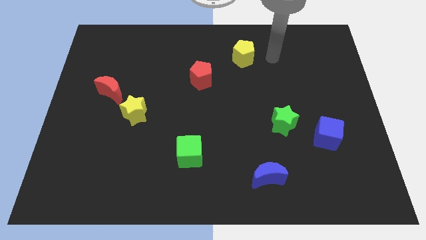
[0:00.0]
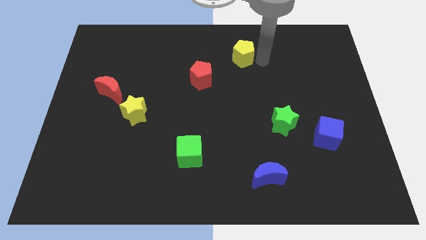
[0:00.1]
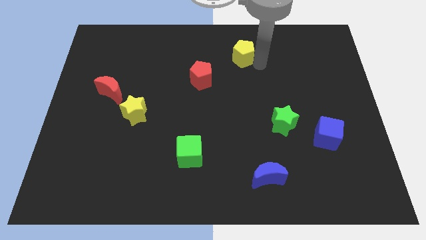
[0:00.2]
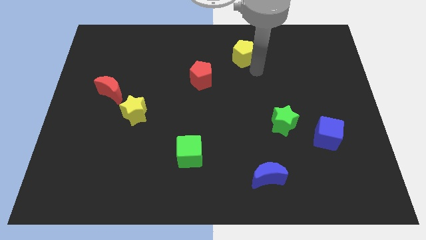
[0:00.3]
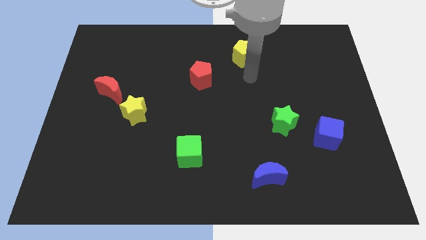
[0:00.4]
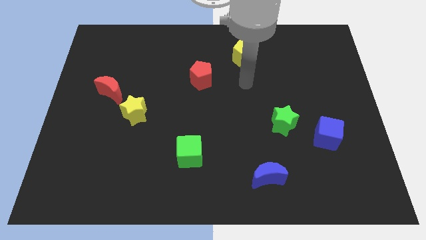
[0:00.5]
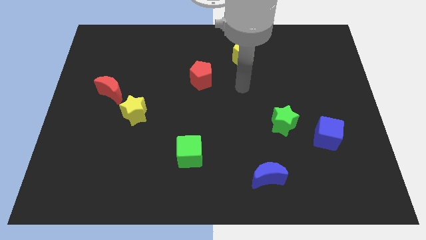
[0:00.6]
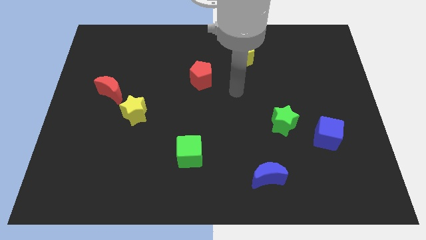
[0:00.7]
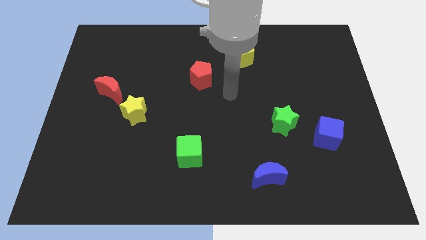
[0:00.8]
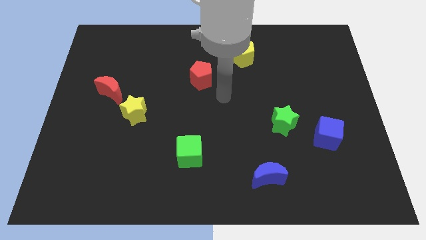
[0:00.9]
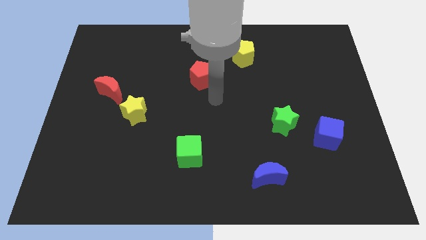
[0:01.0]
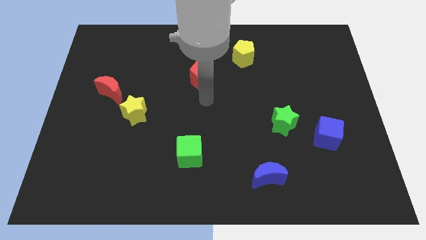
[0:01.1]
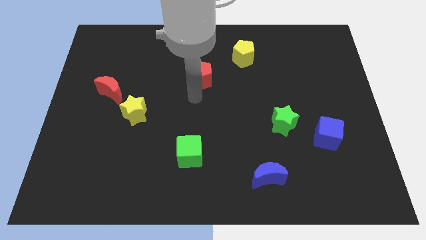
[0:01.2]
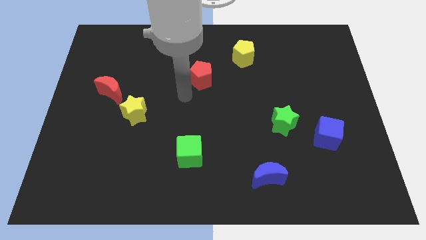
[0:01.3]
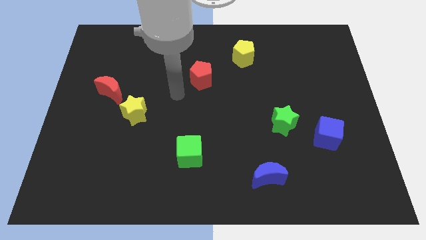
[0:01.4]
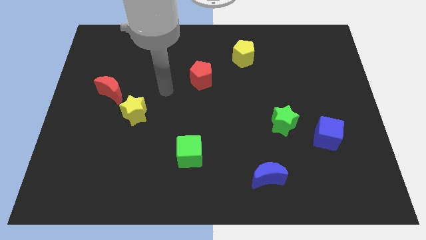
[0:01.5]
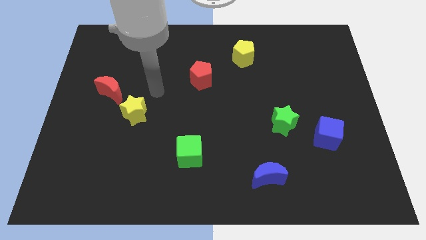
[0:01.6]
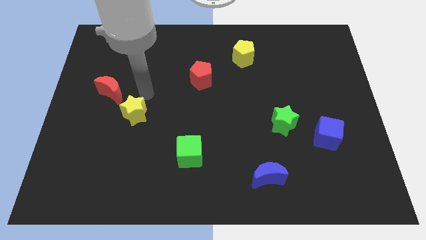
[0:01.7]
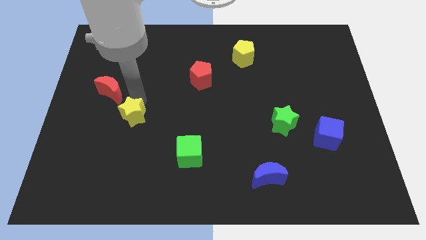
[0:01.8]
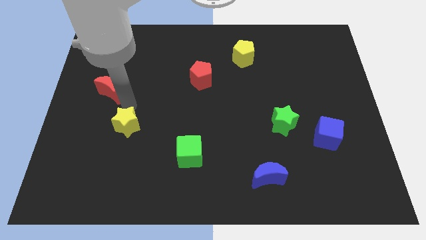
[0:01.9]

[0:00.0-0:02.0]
pull the red moon apart from the yellow star

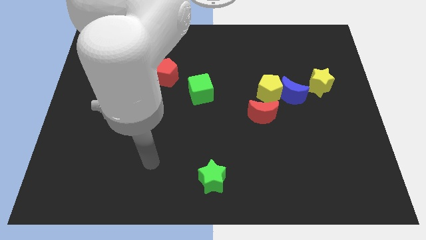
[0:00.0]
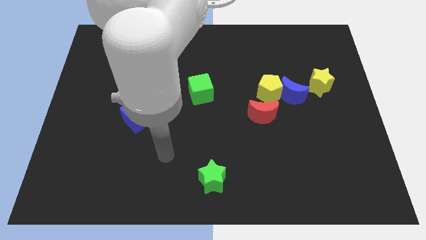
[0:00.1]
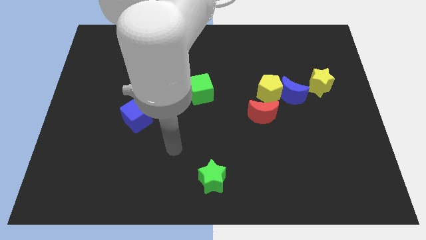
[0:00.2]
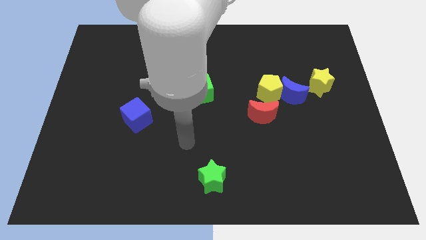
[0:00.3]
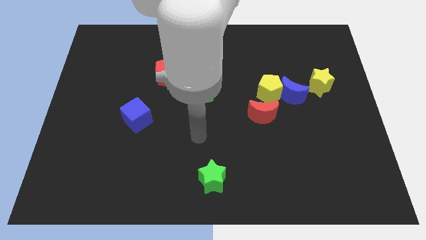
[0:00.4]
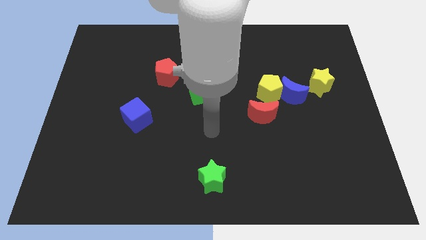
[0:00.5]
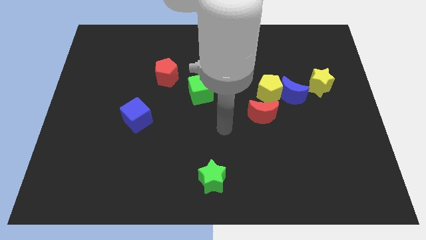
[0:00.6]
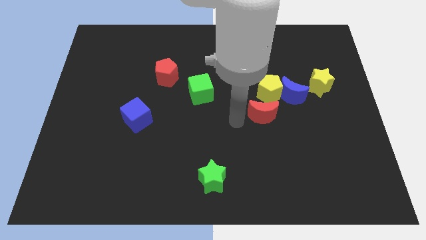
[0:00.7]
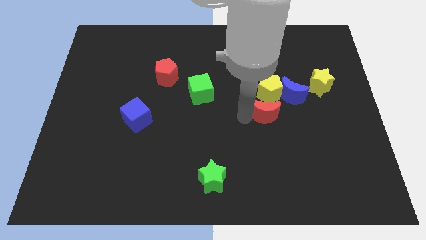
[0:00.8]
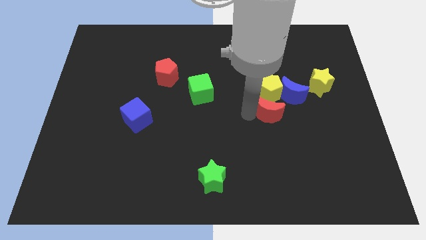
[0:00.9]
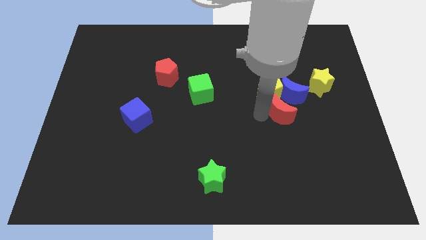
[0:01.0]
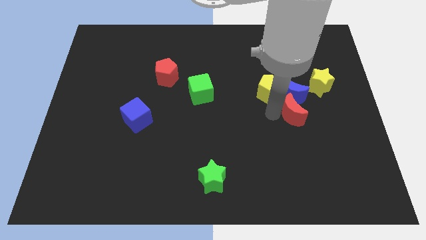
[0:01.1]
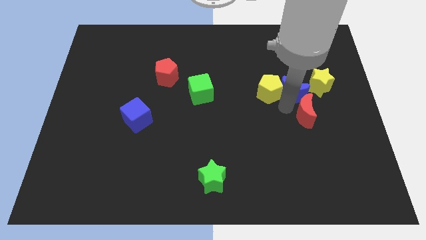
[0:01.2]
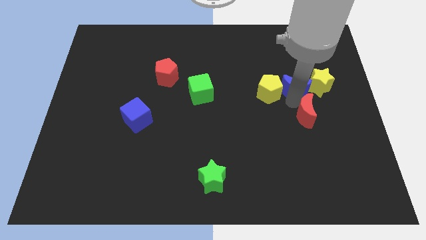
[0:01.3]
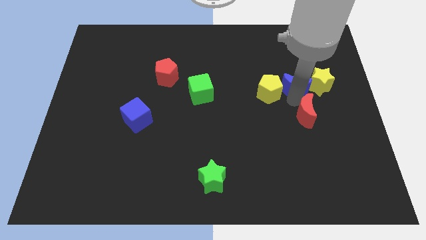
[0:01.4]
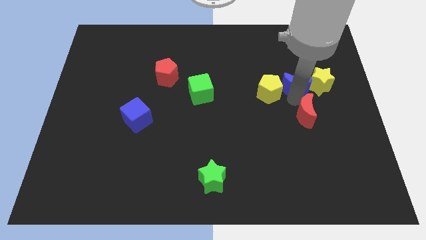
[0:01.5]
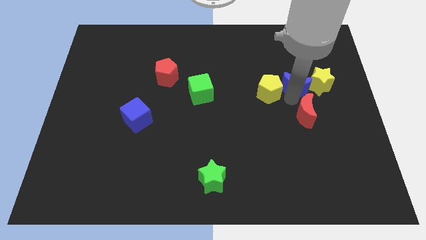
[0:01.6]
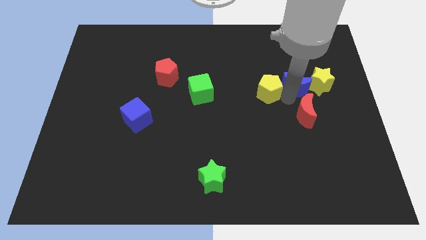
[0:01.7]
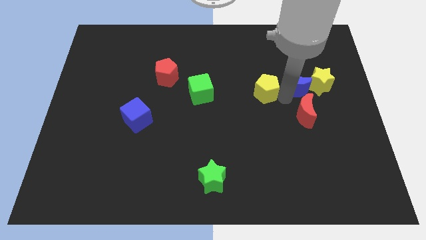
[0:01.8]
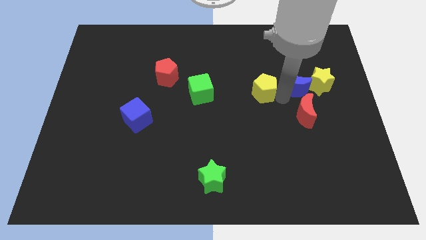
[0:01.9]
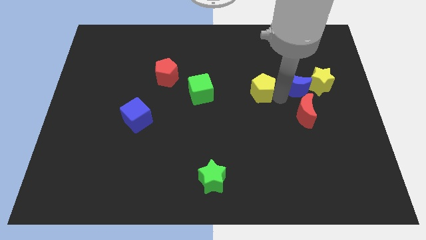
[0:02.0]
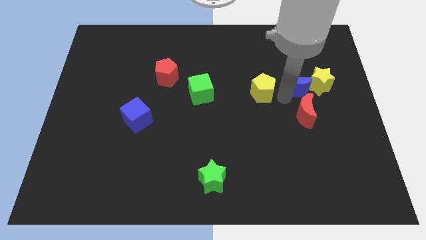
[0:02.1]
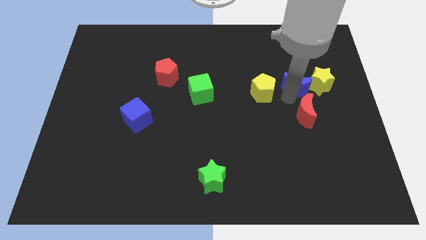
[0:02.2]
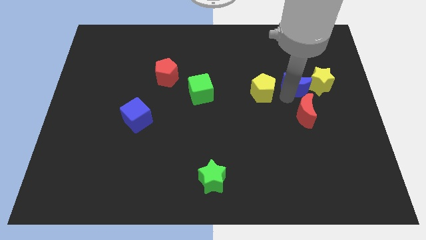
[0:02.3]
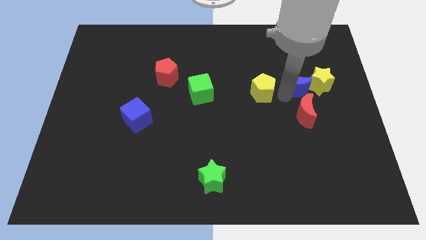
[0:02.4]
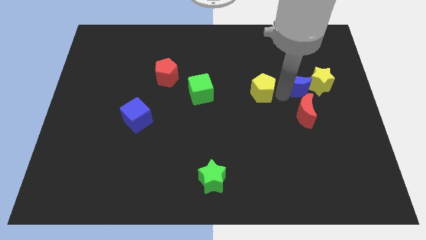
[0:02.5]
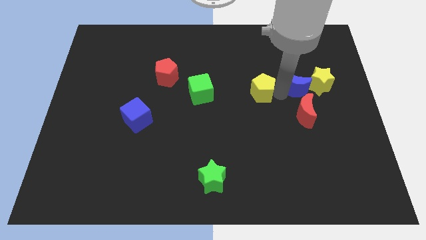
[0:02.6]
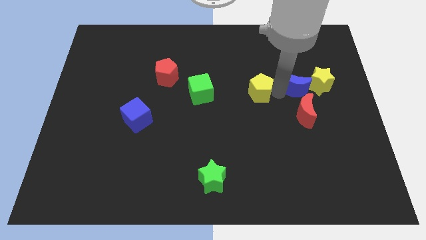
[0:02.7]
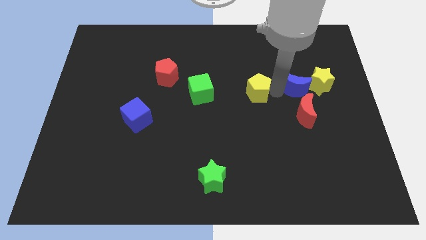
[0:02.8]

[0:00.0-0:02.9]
separate the yellow pentagon from the blue moon and red moon

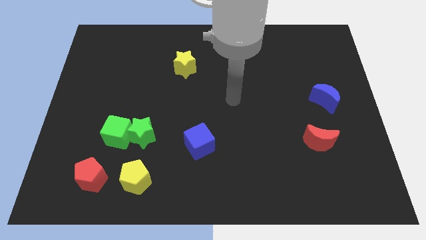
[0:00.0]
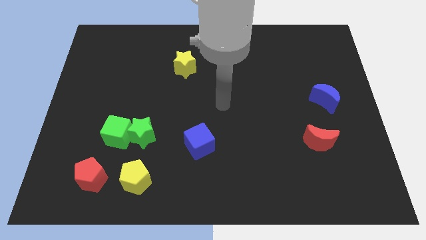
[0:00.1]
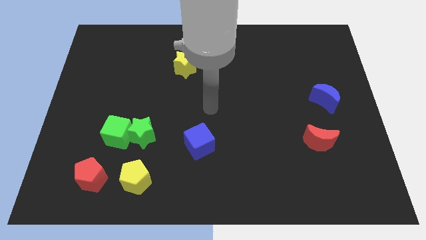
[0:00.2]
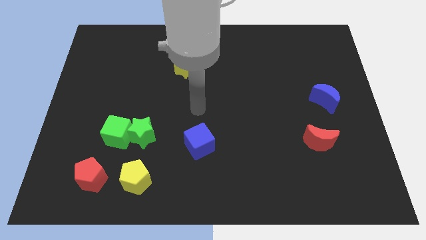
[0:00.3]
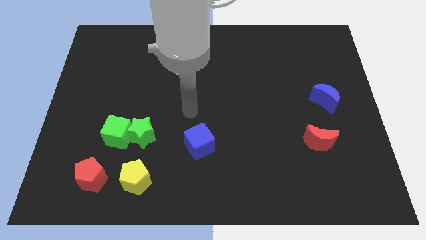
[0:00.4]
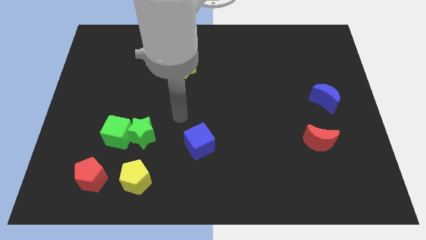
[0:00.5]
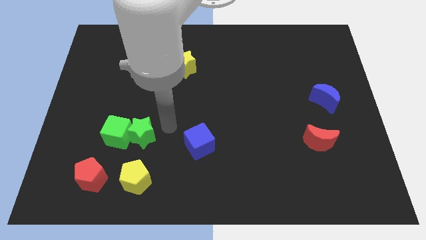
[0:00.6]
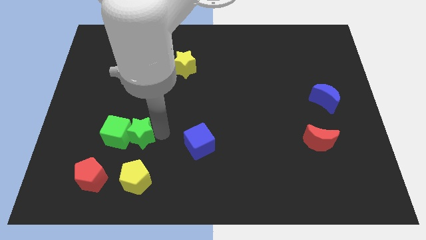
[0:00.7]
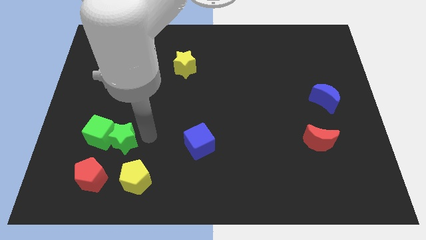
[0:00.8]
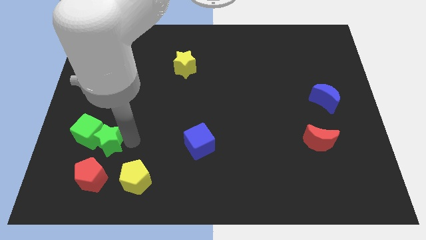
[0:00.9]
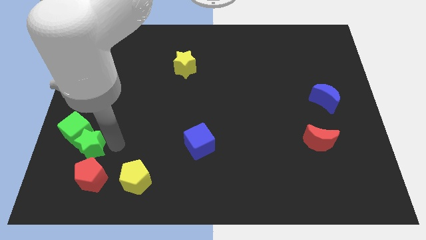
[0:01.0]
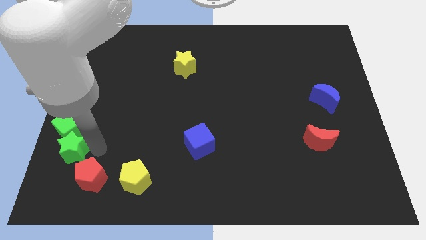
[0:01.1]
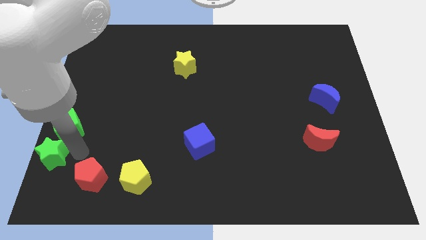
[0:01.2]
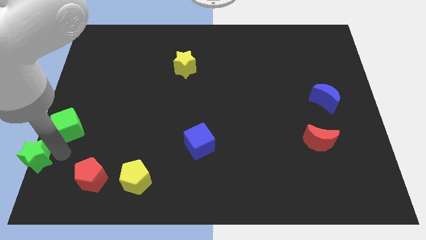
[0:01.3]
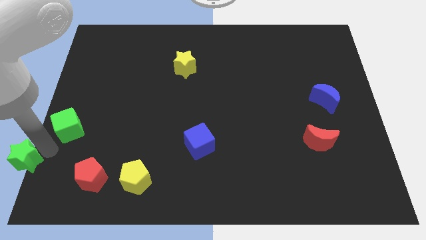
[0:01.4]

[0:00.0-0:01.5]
move the green cube away from the green star

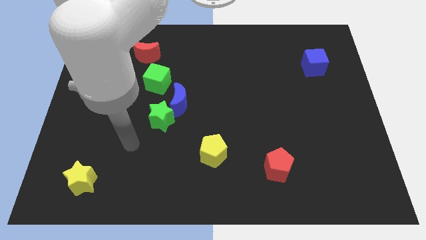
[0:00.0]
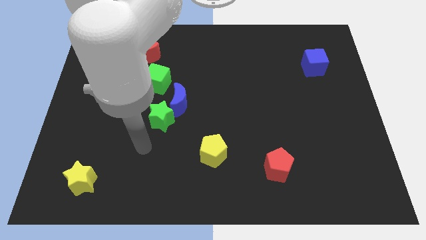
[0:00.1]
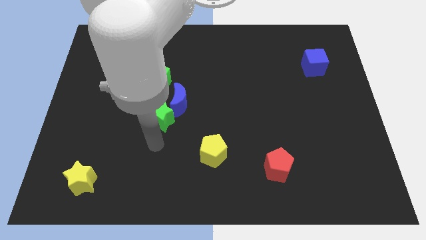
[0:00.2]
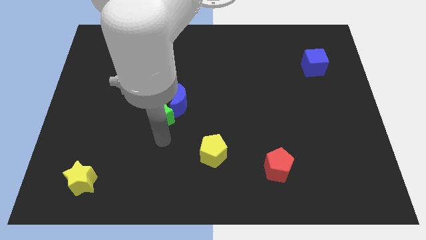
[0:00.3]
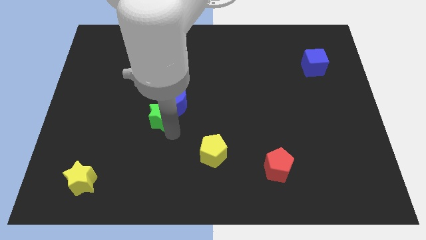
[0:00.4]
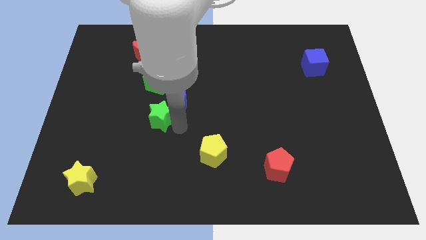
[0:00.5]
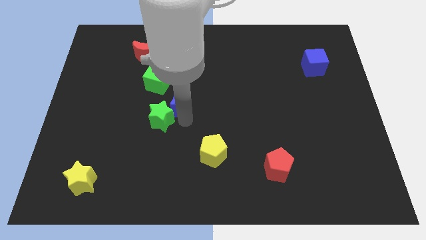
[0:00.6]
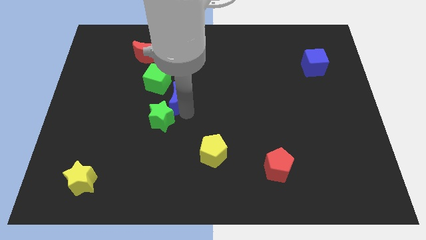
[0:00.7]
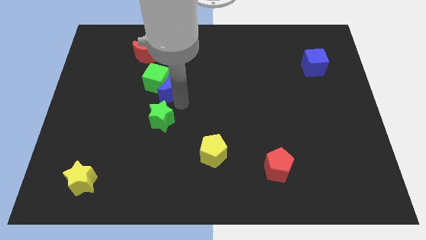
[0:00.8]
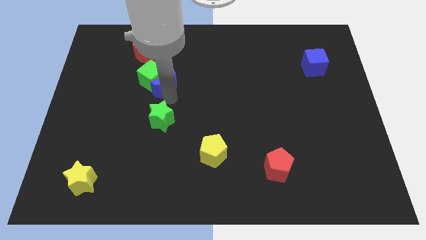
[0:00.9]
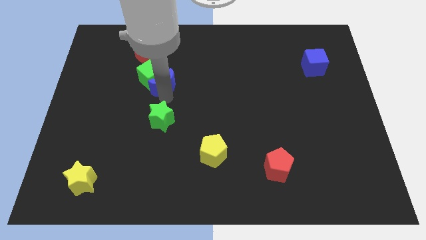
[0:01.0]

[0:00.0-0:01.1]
separate the green star from the blue moon

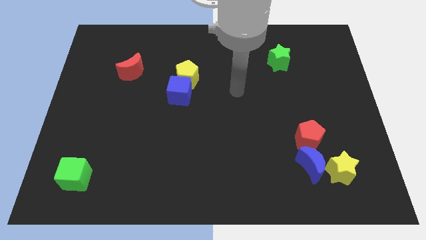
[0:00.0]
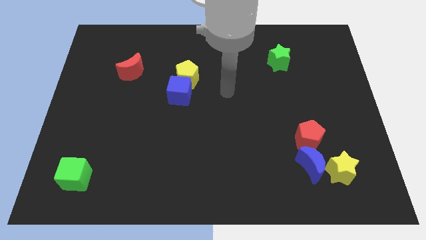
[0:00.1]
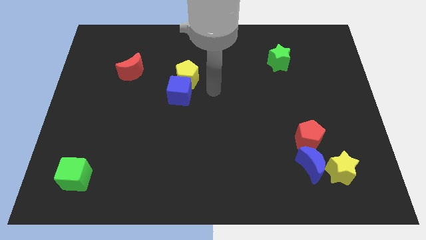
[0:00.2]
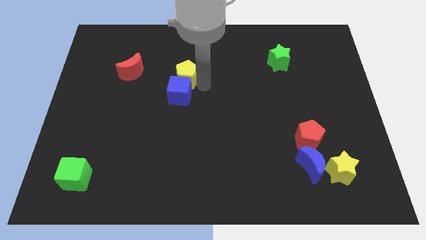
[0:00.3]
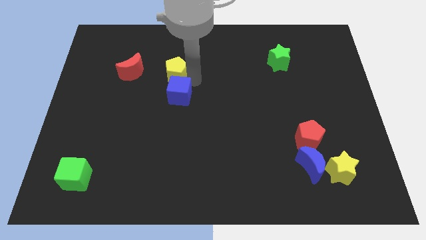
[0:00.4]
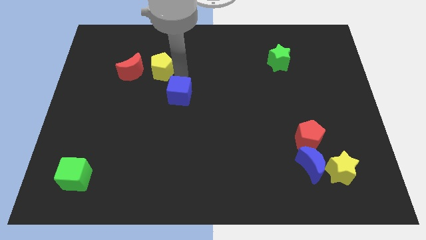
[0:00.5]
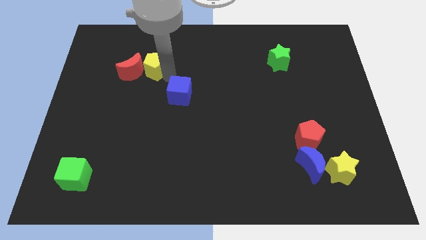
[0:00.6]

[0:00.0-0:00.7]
pull the blue cube apart from the yellow pentagon

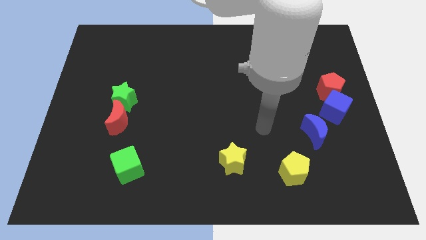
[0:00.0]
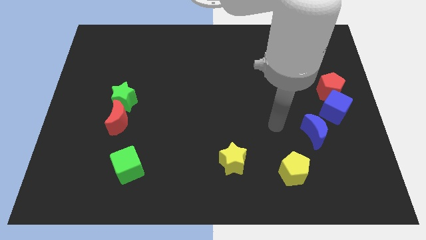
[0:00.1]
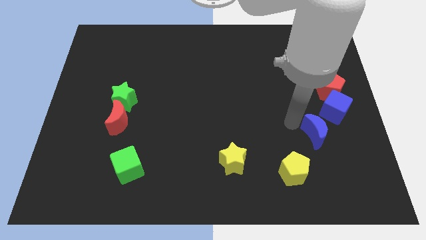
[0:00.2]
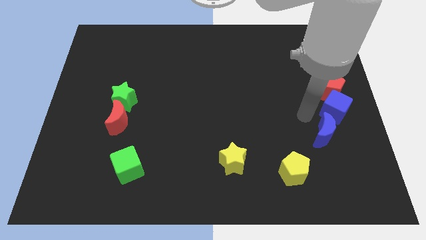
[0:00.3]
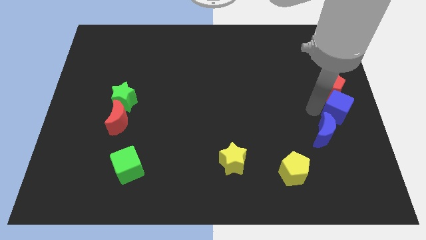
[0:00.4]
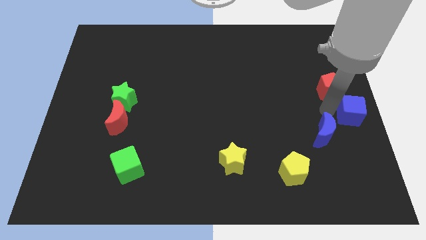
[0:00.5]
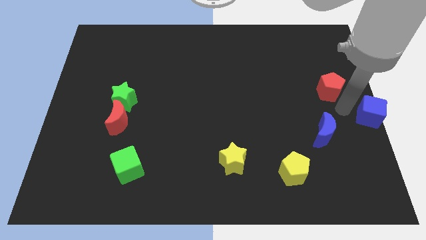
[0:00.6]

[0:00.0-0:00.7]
pull the red pentagon apart from the blue cube

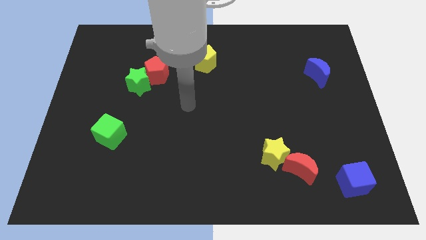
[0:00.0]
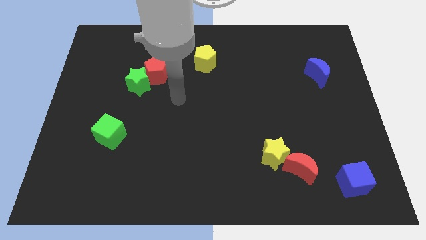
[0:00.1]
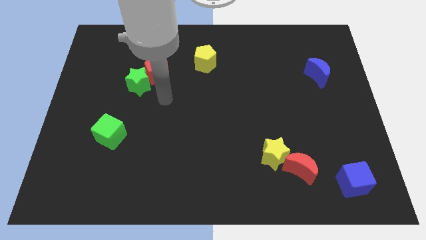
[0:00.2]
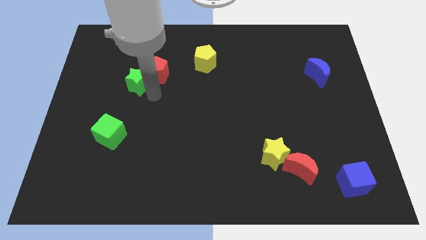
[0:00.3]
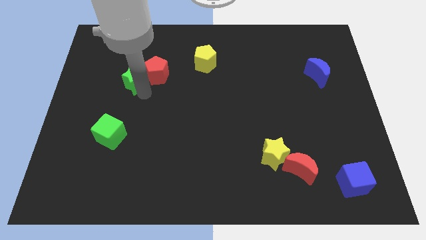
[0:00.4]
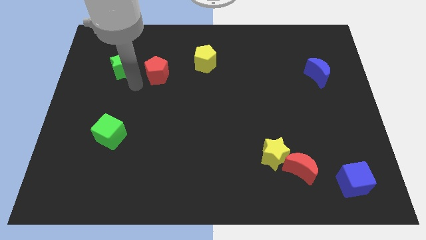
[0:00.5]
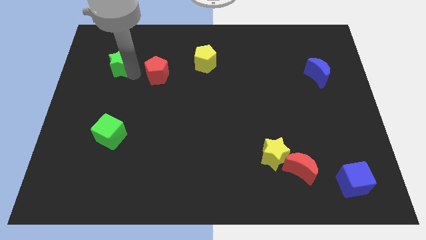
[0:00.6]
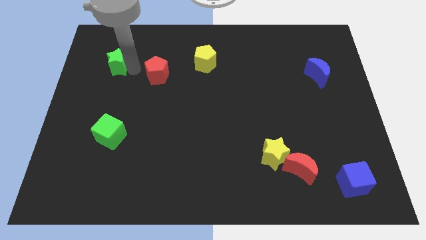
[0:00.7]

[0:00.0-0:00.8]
separate the red pentagon from the green star
